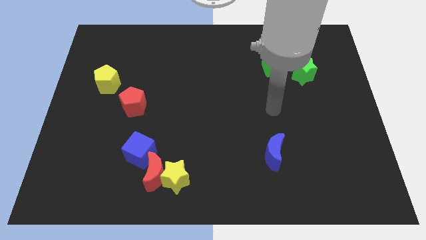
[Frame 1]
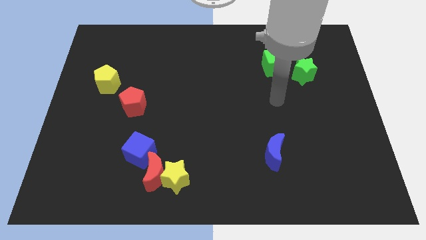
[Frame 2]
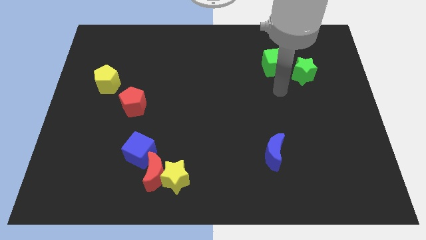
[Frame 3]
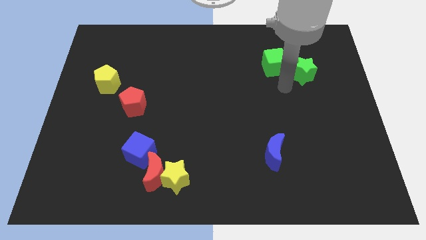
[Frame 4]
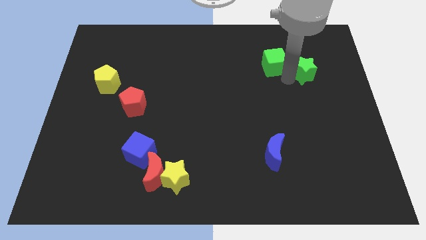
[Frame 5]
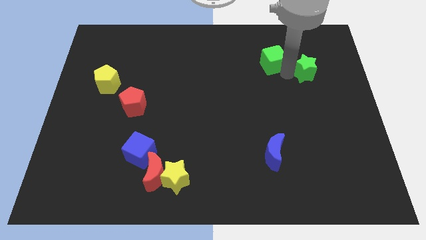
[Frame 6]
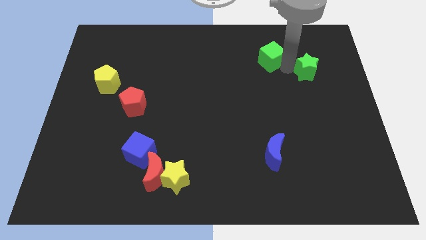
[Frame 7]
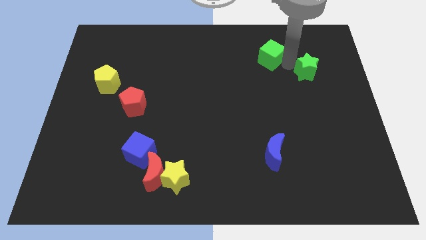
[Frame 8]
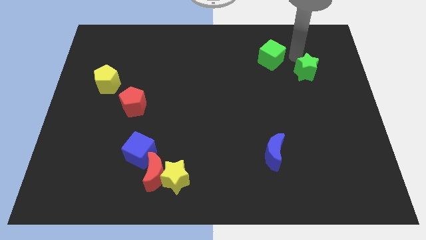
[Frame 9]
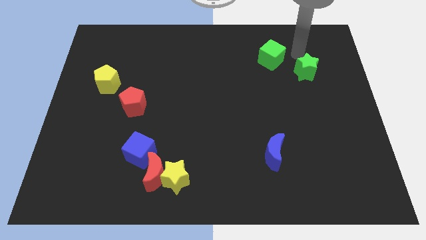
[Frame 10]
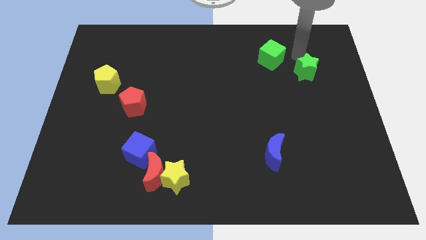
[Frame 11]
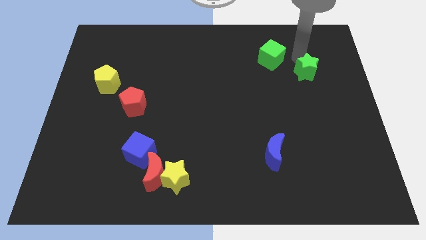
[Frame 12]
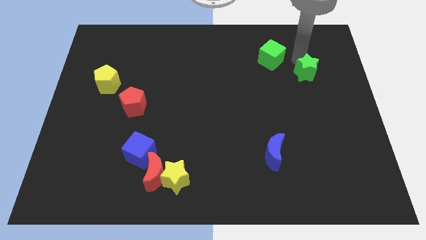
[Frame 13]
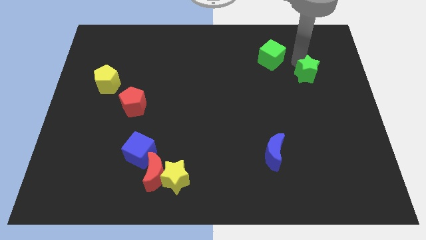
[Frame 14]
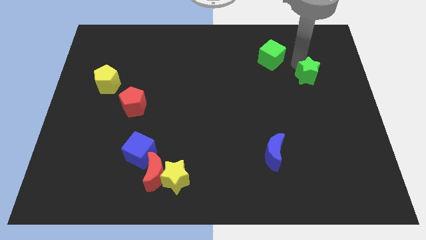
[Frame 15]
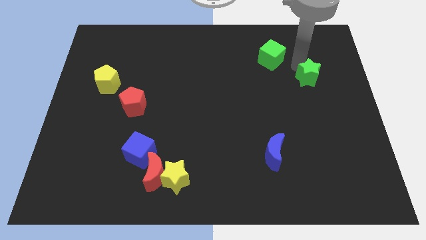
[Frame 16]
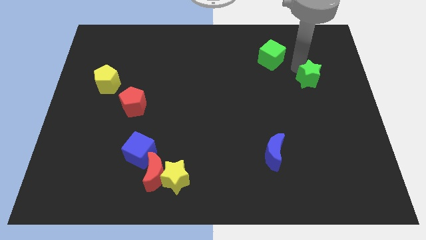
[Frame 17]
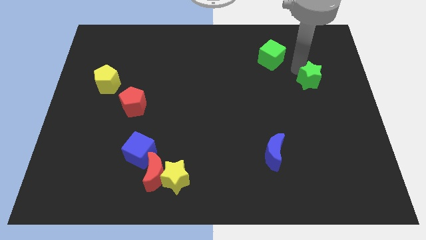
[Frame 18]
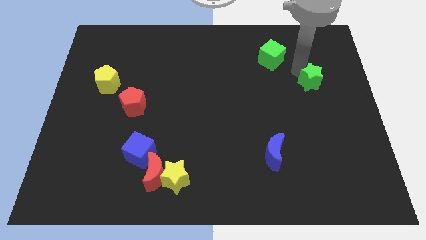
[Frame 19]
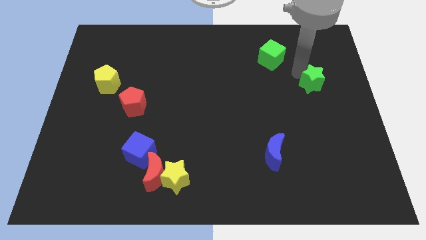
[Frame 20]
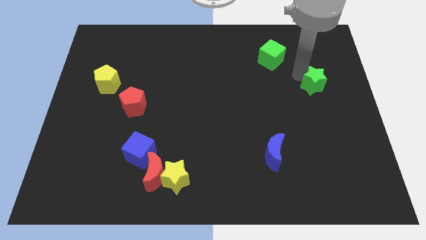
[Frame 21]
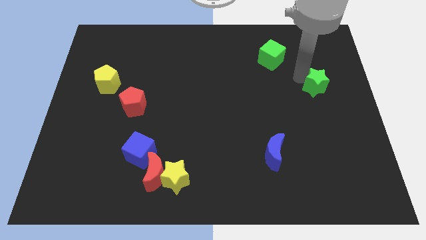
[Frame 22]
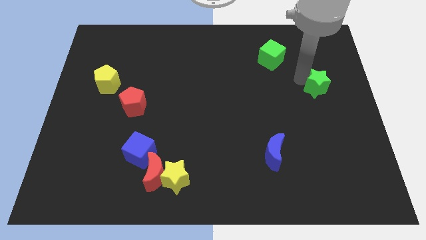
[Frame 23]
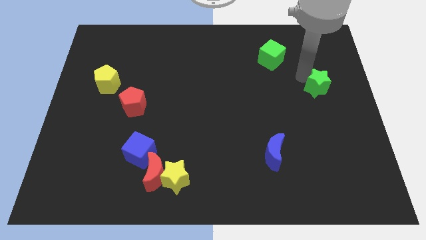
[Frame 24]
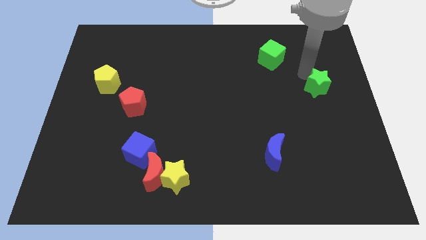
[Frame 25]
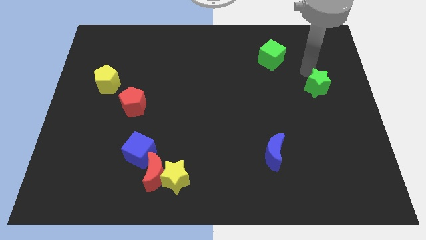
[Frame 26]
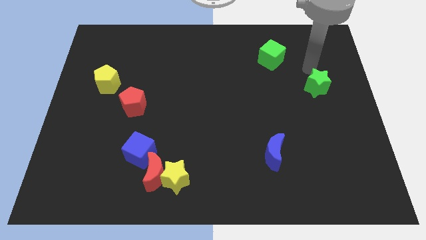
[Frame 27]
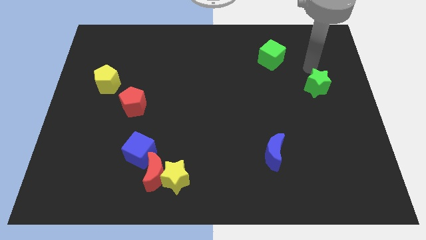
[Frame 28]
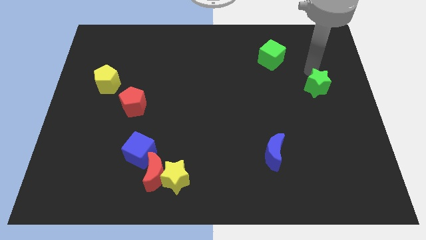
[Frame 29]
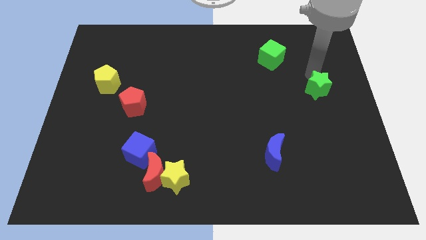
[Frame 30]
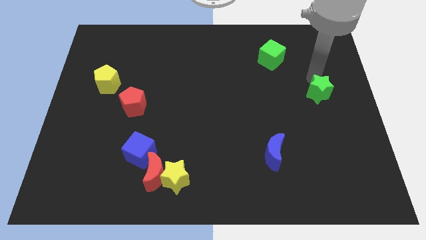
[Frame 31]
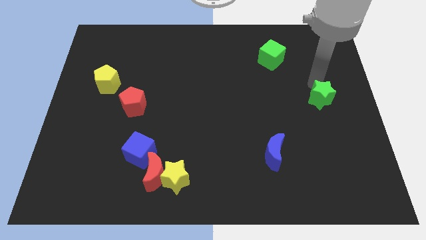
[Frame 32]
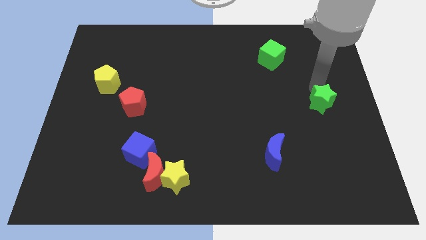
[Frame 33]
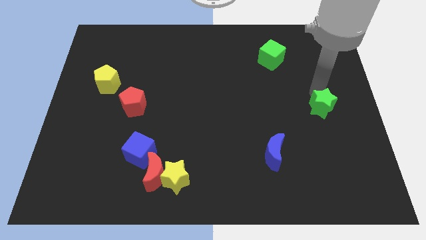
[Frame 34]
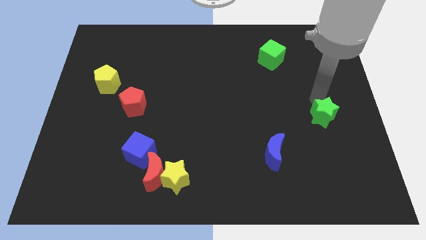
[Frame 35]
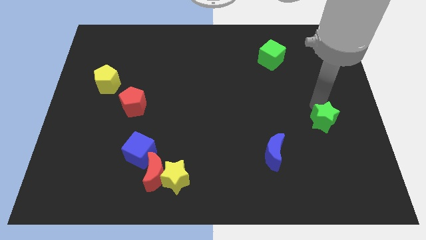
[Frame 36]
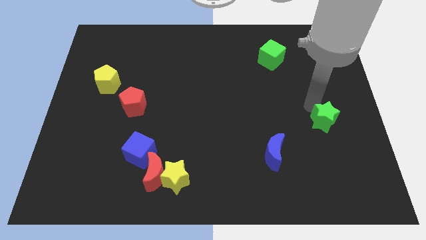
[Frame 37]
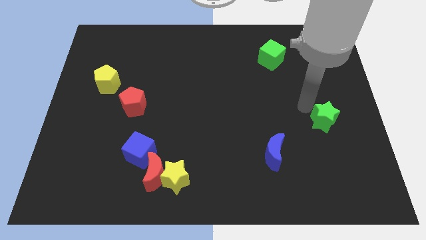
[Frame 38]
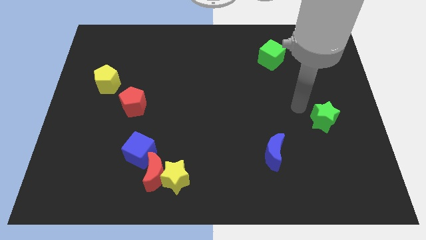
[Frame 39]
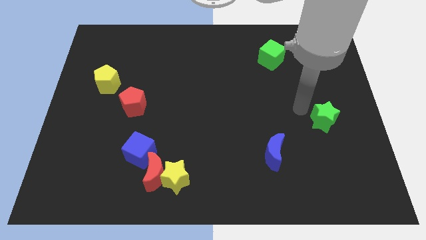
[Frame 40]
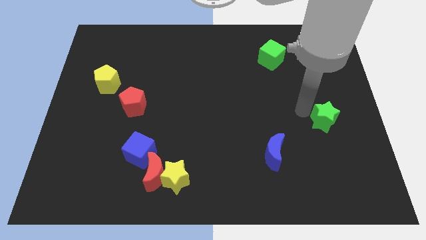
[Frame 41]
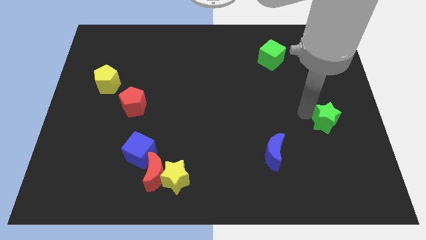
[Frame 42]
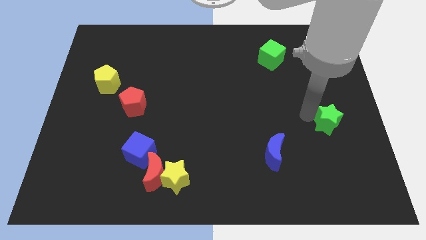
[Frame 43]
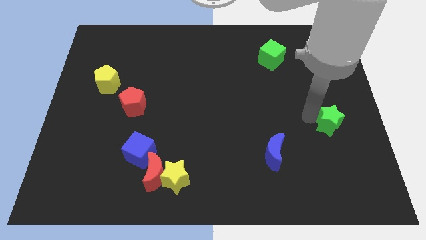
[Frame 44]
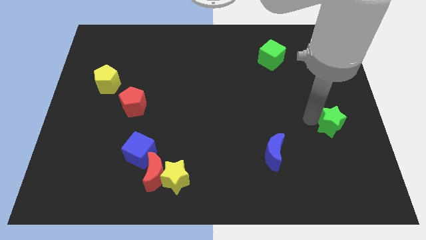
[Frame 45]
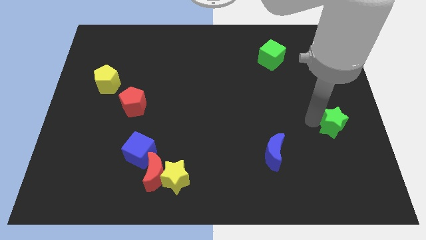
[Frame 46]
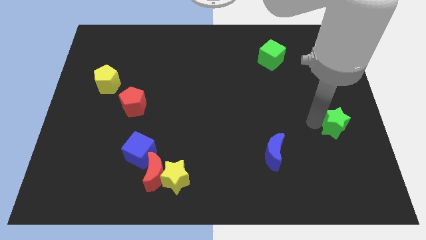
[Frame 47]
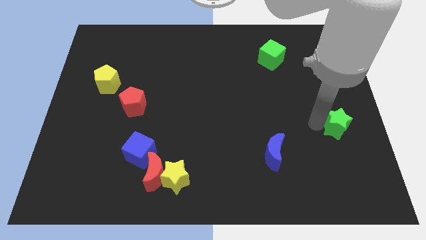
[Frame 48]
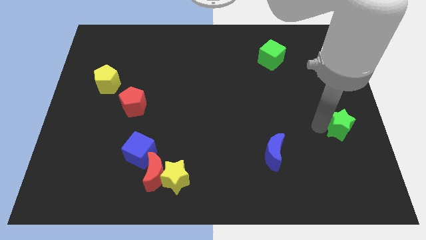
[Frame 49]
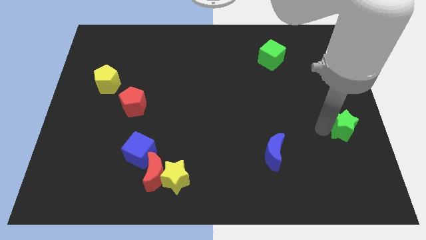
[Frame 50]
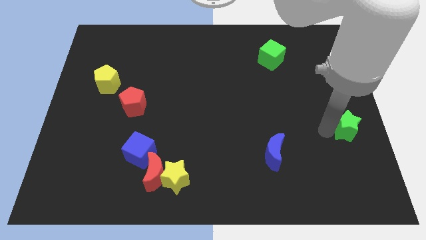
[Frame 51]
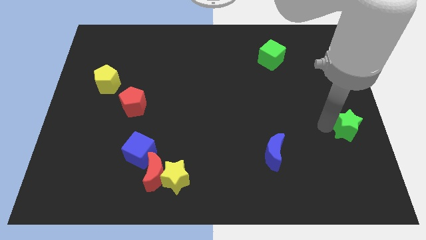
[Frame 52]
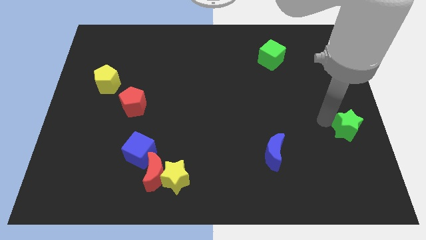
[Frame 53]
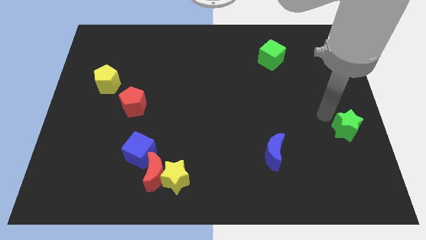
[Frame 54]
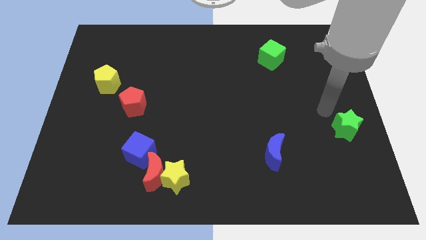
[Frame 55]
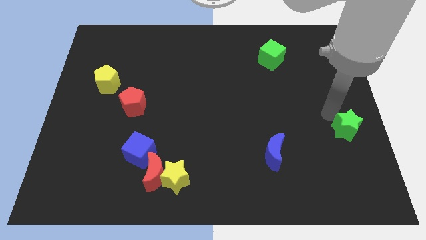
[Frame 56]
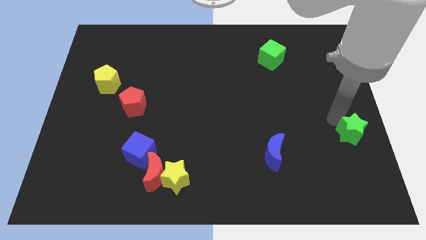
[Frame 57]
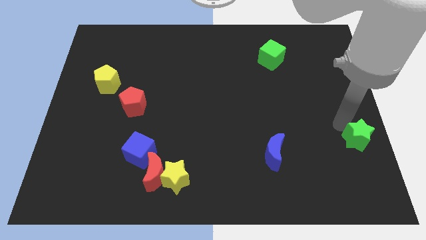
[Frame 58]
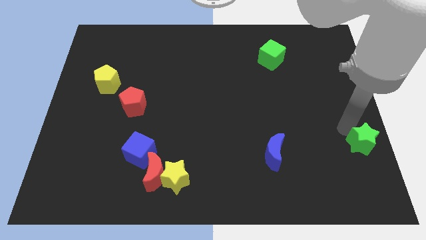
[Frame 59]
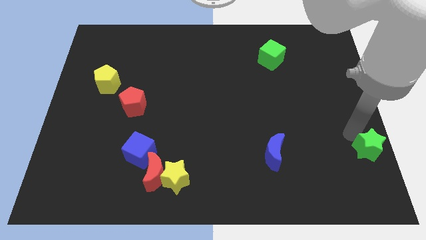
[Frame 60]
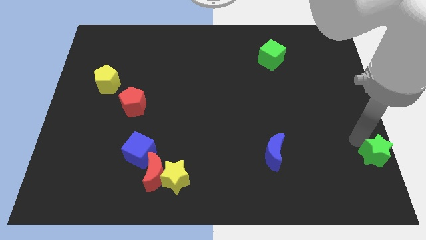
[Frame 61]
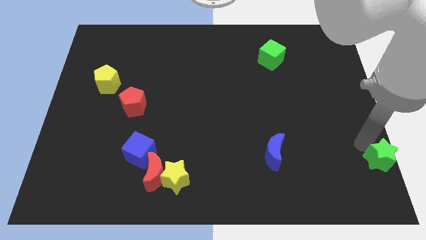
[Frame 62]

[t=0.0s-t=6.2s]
push the green star to the lower right corner

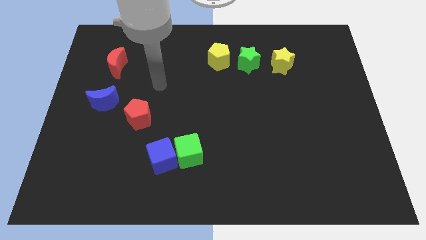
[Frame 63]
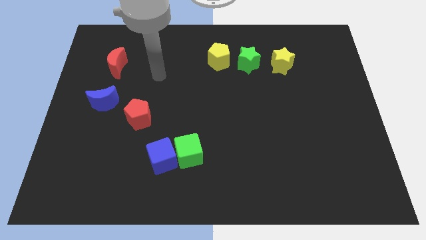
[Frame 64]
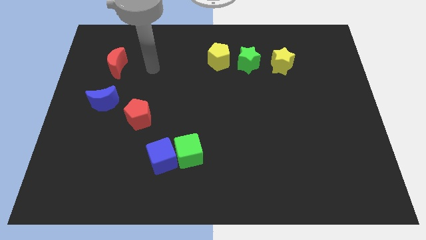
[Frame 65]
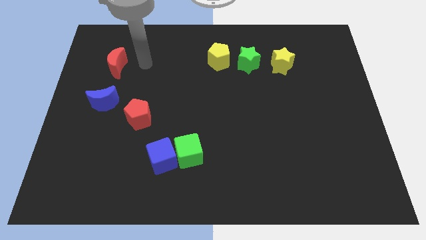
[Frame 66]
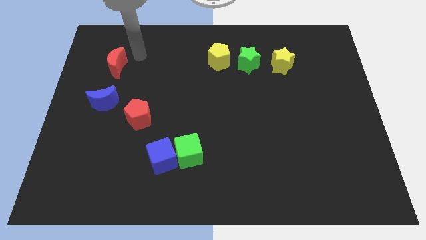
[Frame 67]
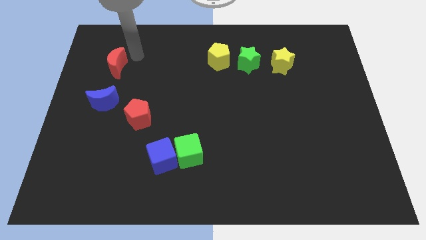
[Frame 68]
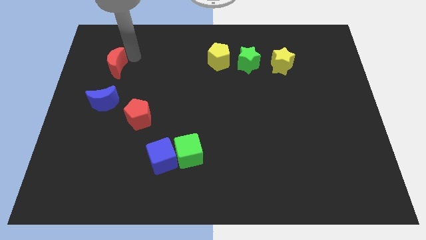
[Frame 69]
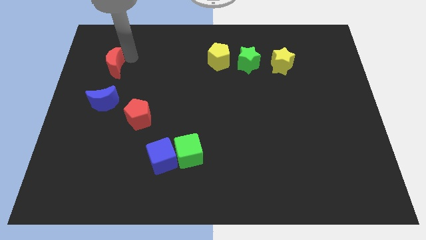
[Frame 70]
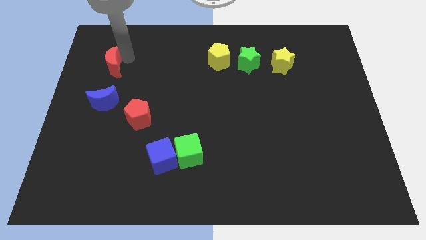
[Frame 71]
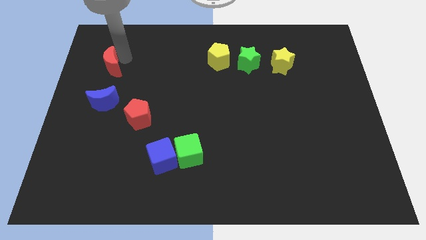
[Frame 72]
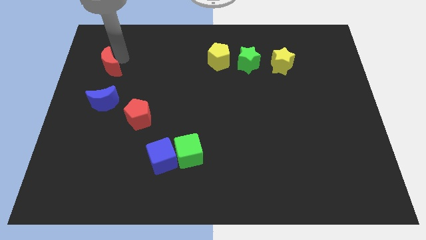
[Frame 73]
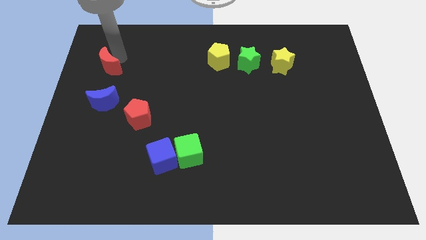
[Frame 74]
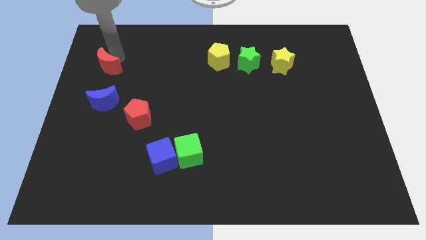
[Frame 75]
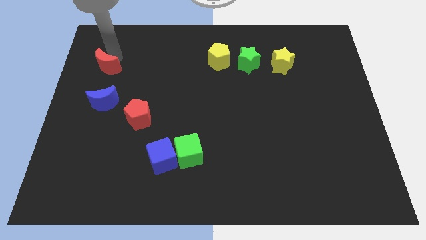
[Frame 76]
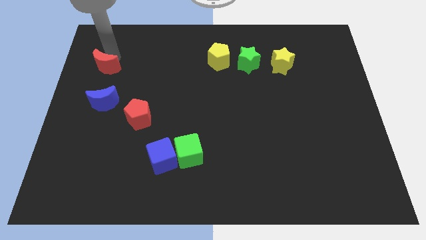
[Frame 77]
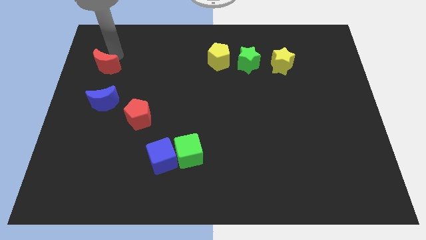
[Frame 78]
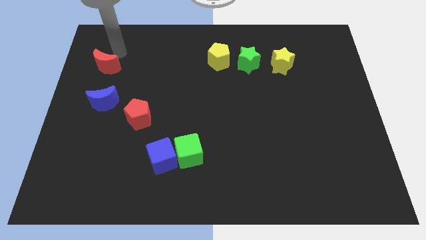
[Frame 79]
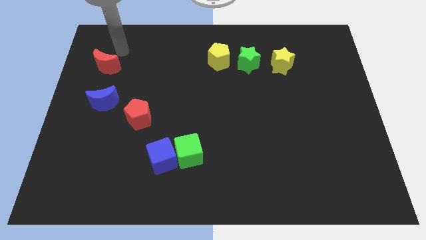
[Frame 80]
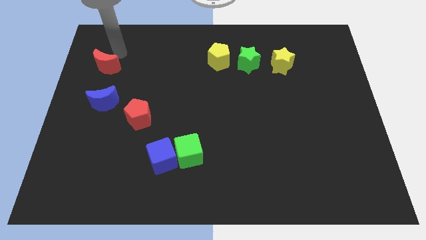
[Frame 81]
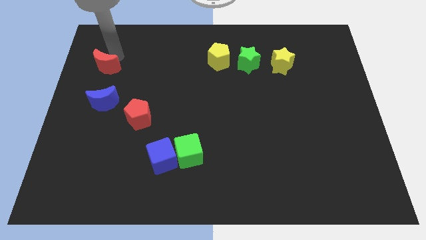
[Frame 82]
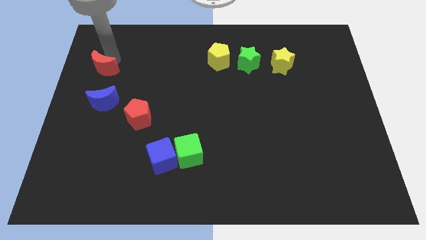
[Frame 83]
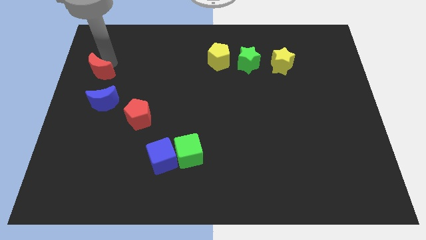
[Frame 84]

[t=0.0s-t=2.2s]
push the red moon to the left side
